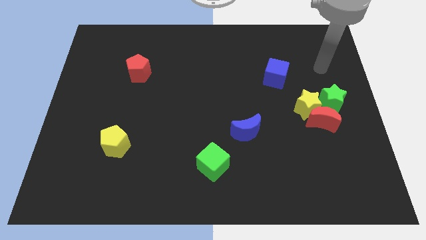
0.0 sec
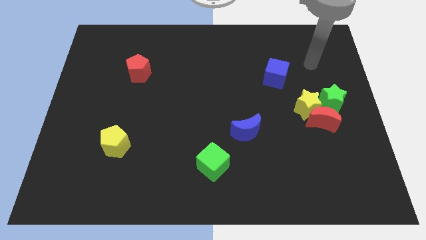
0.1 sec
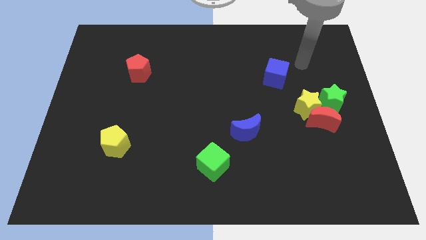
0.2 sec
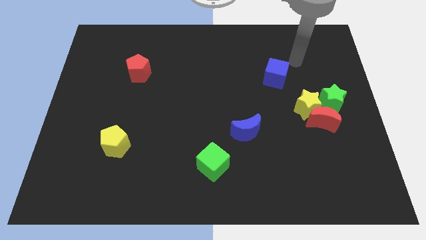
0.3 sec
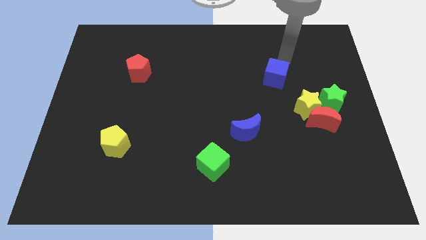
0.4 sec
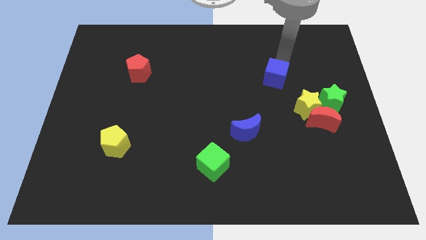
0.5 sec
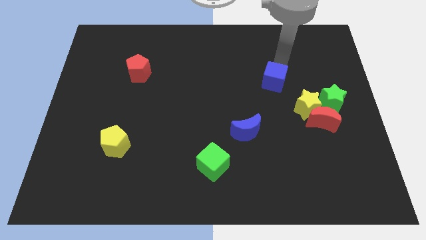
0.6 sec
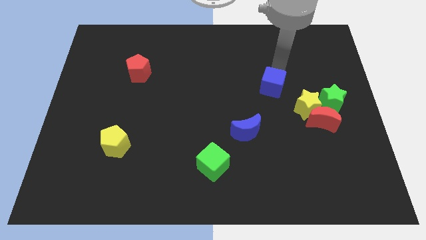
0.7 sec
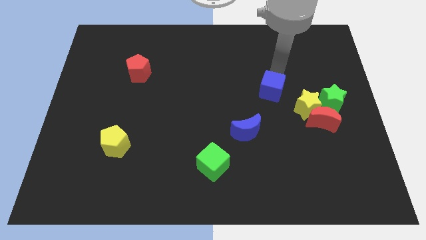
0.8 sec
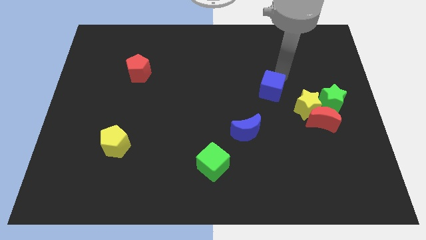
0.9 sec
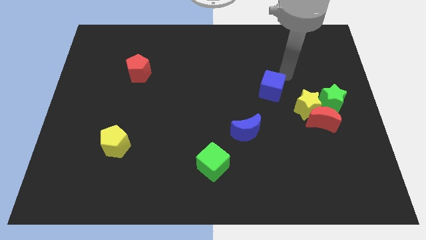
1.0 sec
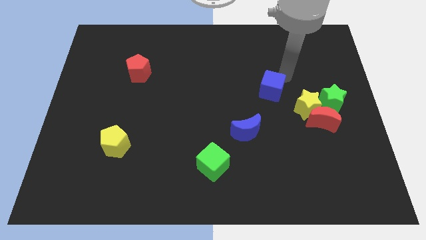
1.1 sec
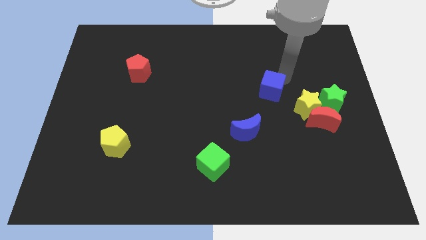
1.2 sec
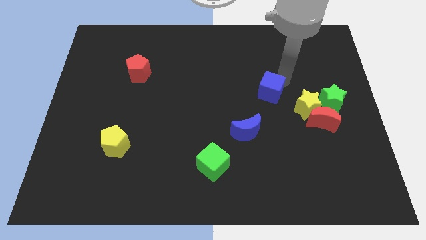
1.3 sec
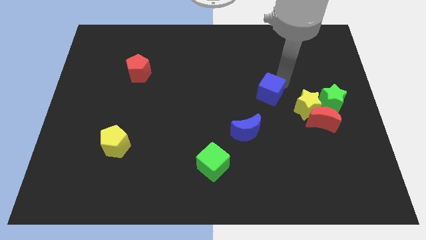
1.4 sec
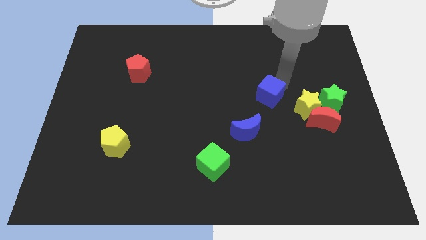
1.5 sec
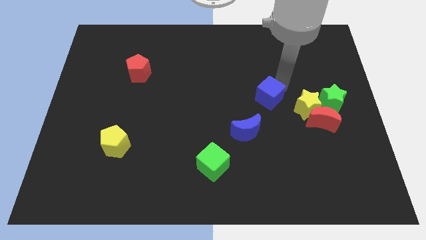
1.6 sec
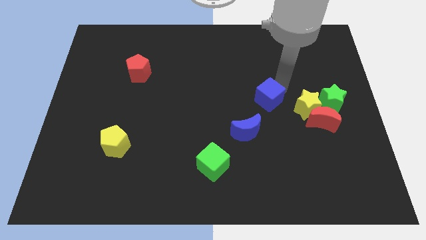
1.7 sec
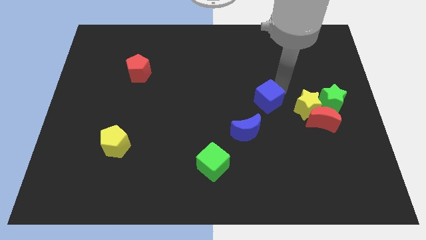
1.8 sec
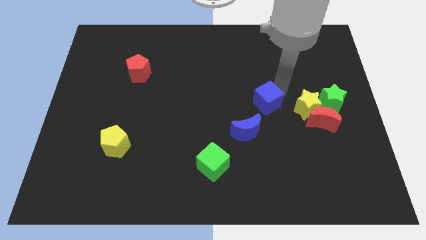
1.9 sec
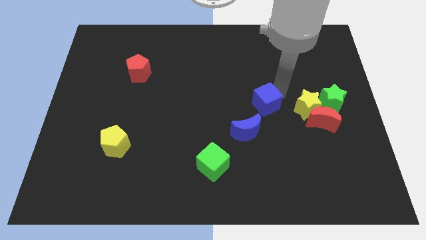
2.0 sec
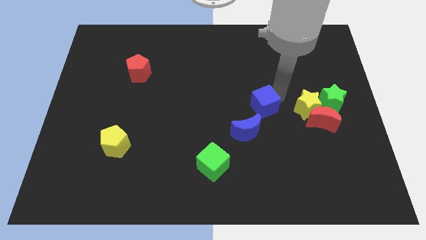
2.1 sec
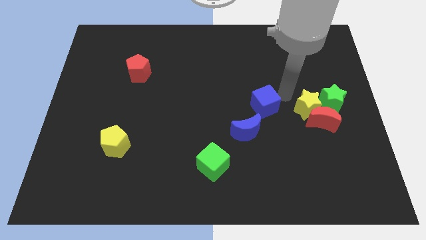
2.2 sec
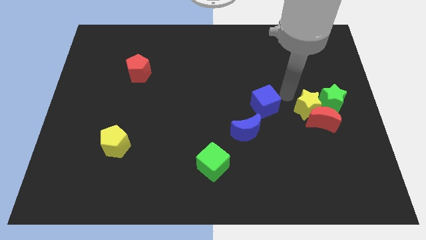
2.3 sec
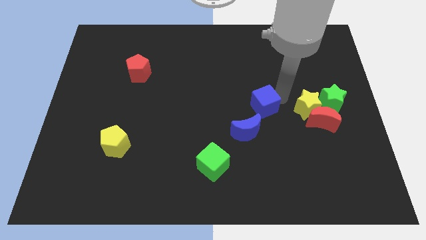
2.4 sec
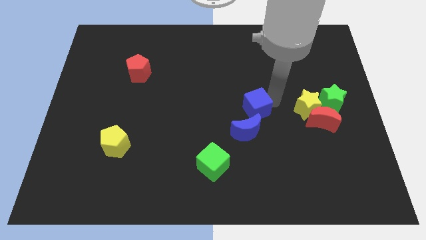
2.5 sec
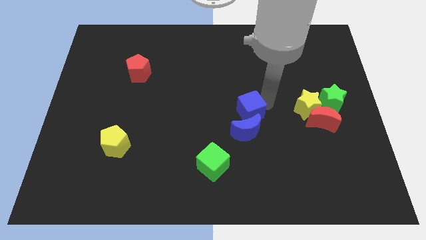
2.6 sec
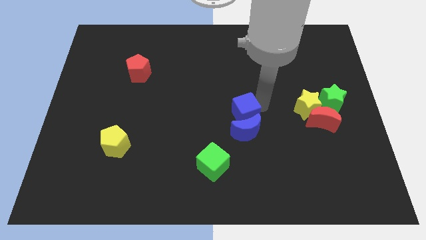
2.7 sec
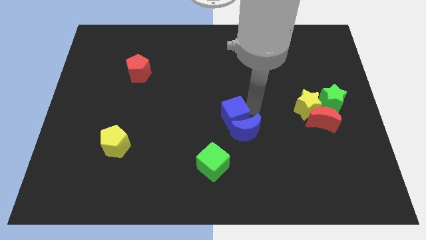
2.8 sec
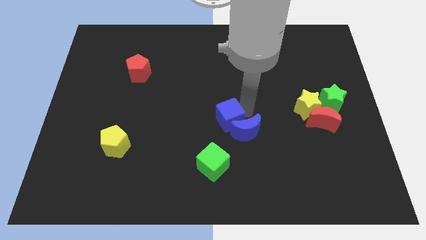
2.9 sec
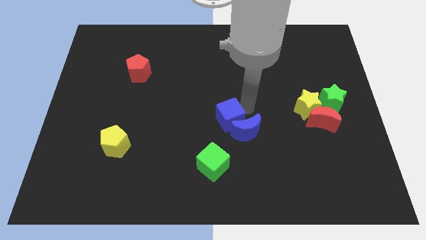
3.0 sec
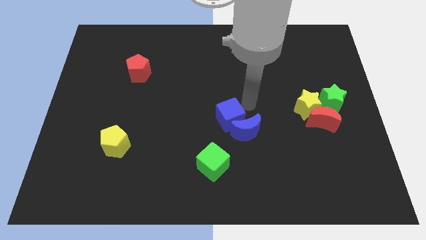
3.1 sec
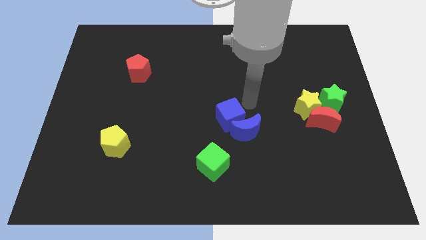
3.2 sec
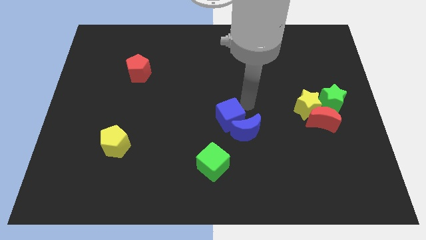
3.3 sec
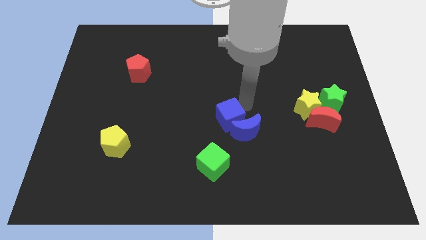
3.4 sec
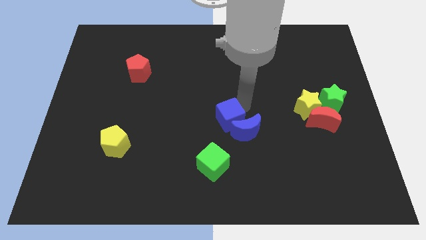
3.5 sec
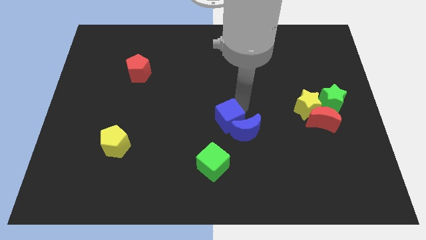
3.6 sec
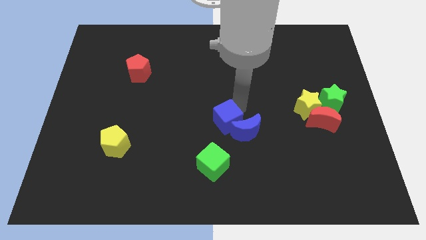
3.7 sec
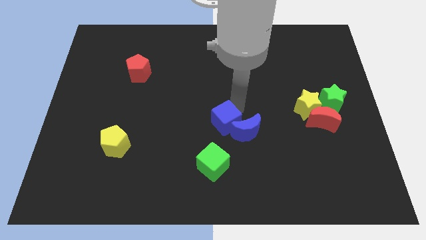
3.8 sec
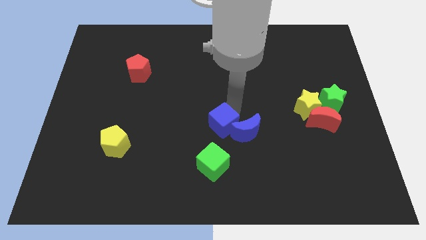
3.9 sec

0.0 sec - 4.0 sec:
push the blue cube downwards and left

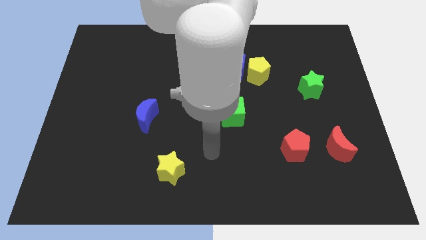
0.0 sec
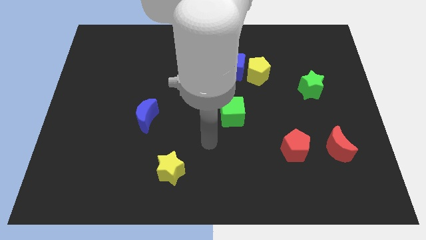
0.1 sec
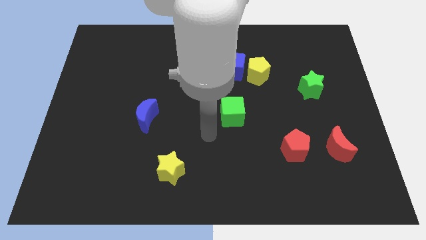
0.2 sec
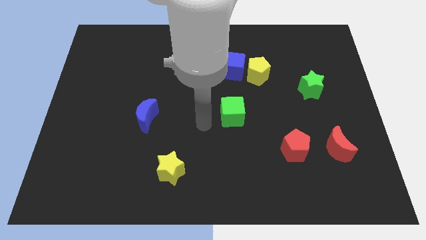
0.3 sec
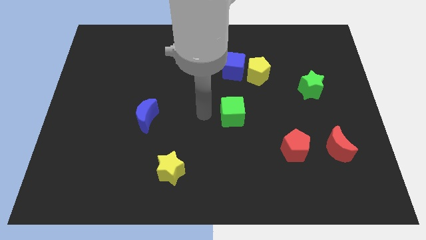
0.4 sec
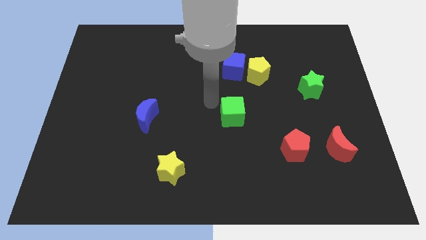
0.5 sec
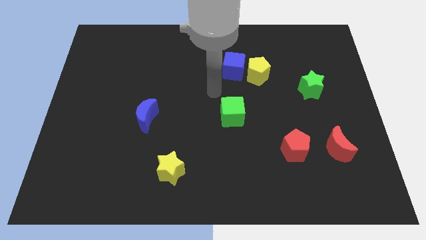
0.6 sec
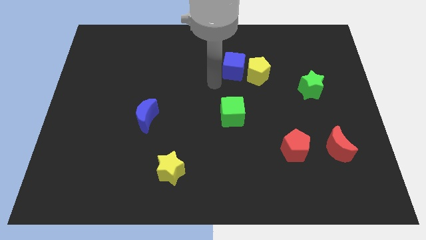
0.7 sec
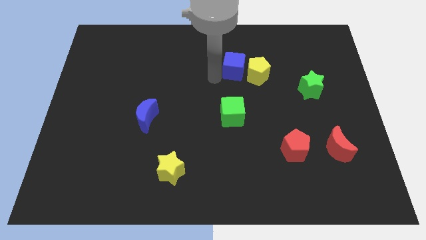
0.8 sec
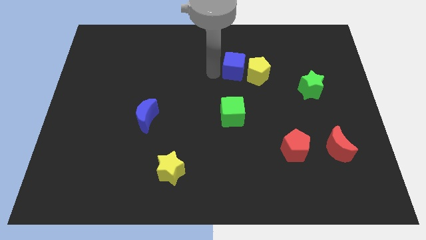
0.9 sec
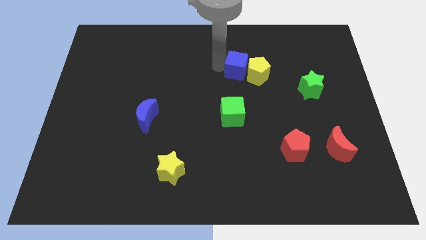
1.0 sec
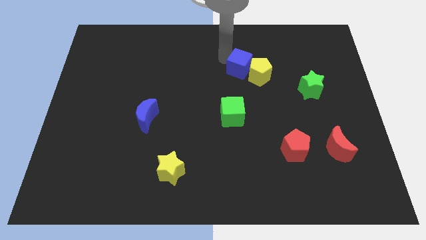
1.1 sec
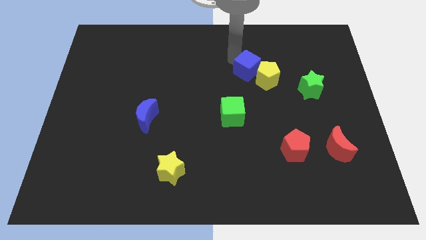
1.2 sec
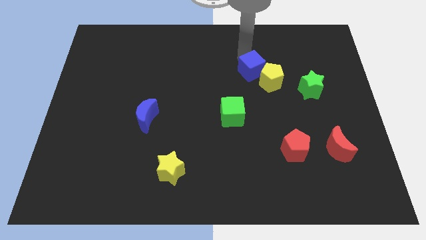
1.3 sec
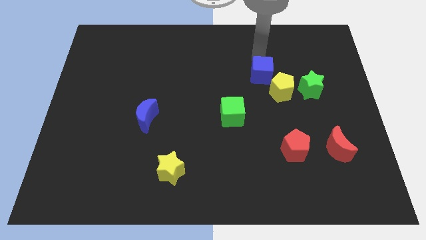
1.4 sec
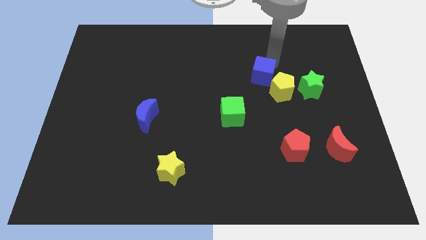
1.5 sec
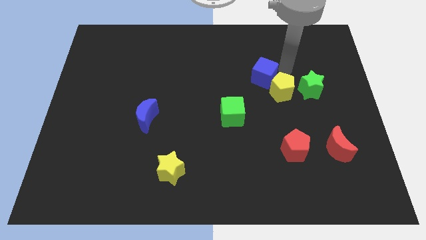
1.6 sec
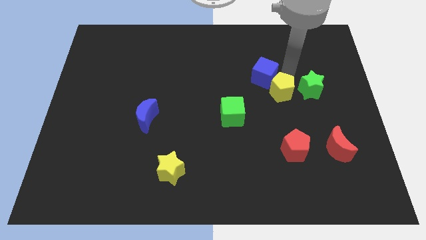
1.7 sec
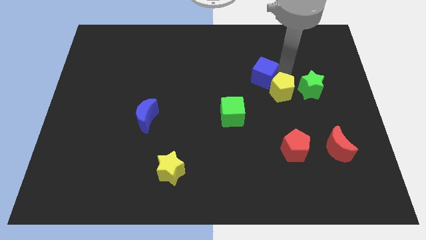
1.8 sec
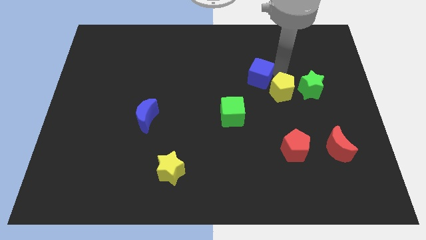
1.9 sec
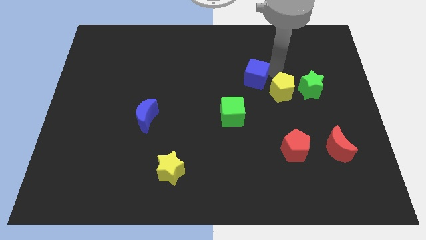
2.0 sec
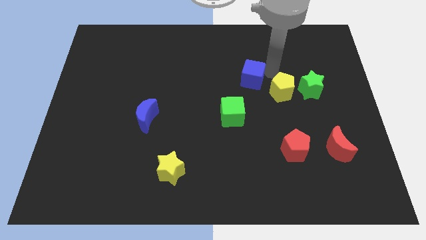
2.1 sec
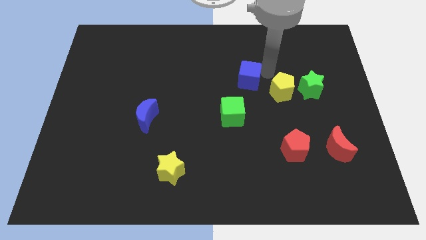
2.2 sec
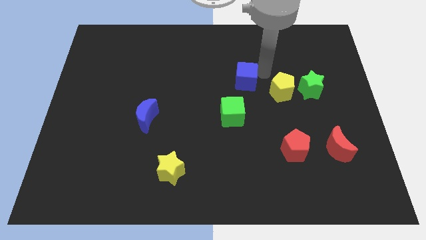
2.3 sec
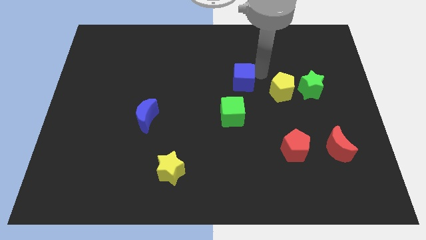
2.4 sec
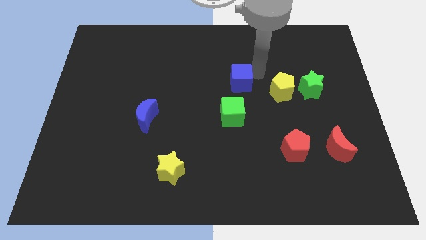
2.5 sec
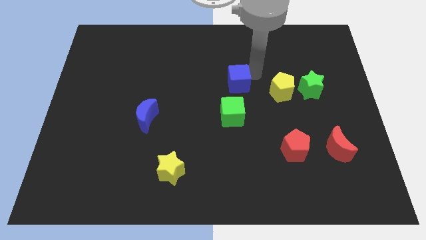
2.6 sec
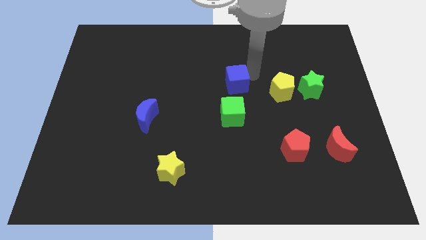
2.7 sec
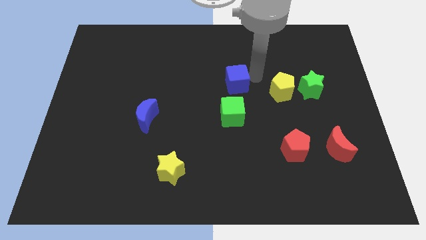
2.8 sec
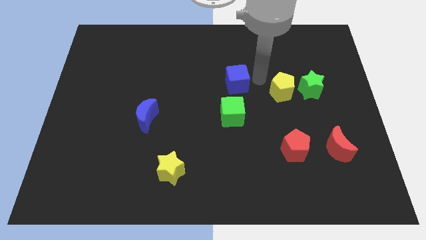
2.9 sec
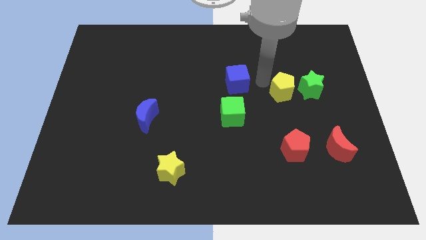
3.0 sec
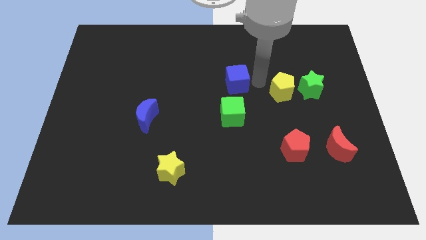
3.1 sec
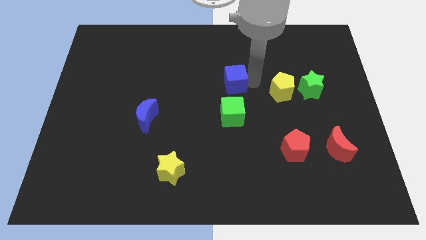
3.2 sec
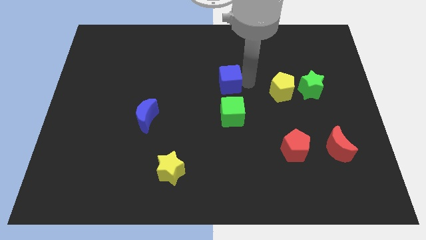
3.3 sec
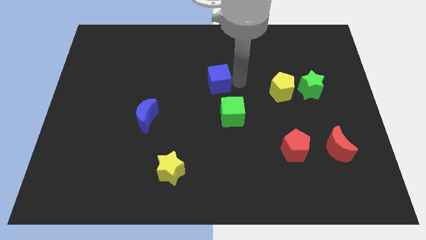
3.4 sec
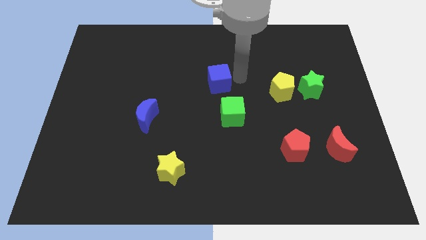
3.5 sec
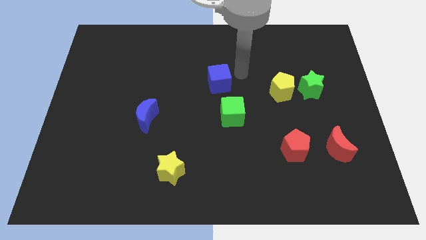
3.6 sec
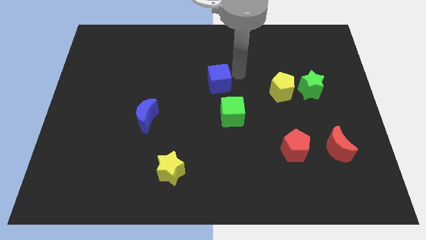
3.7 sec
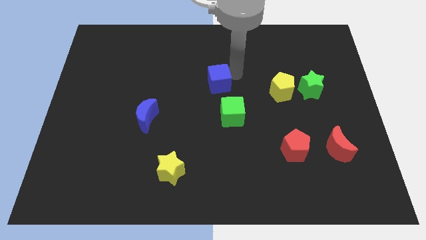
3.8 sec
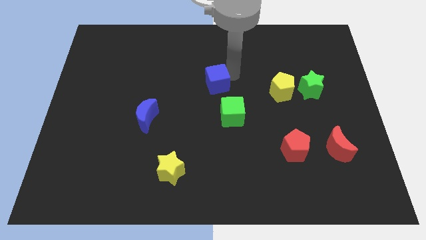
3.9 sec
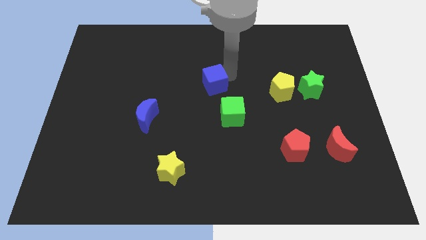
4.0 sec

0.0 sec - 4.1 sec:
slightly push the blue cube downwards and left diagonally

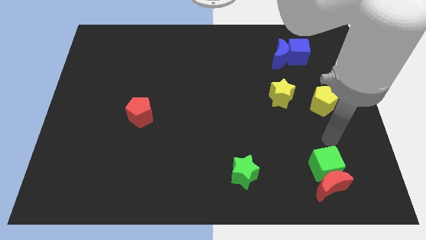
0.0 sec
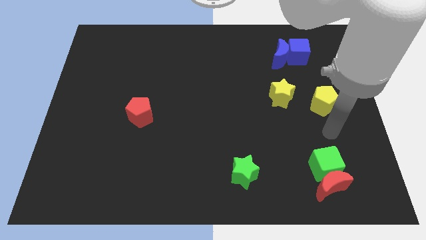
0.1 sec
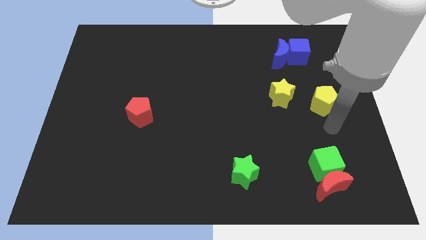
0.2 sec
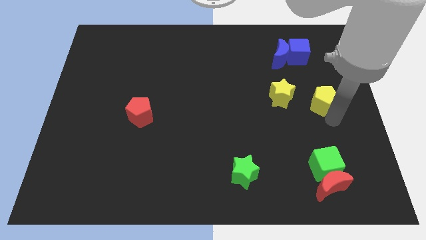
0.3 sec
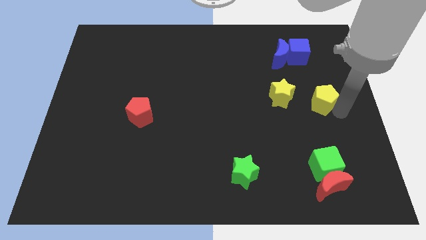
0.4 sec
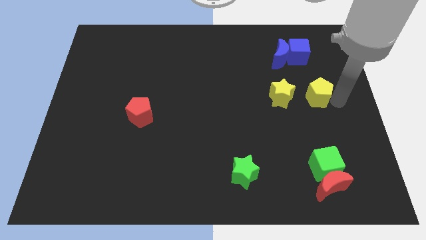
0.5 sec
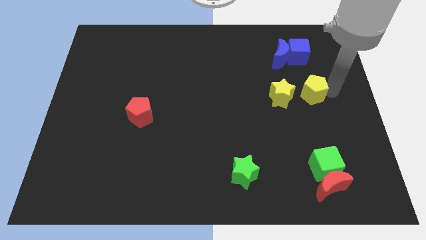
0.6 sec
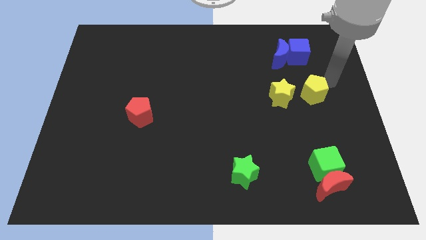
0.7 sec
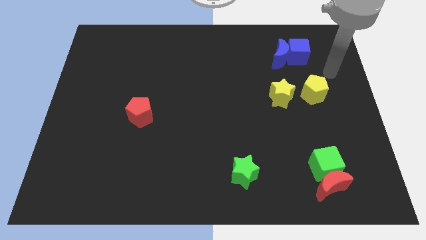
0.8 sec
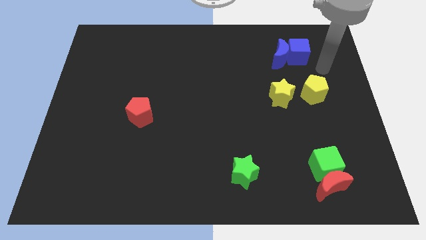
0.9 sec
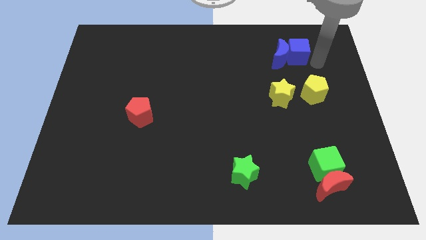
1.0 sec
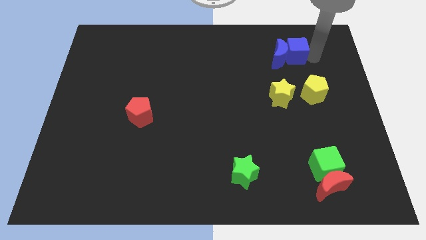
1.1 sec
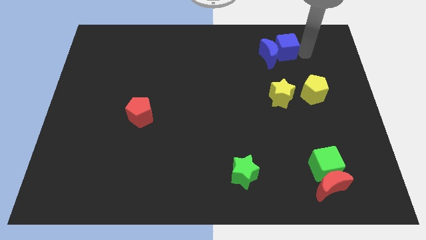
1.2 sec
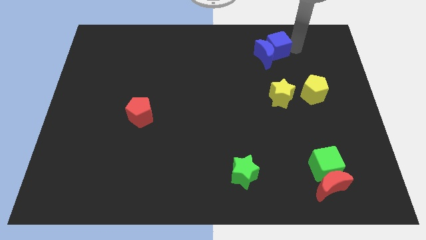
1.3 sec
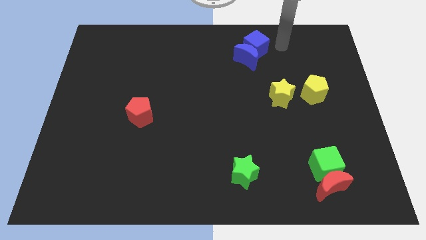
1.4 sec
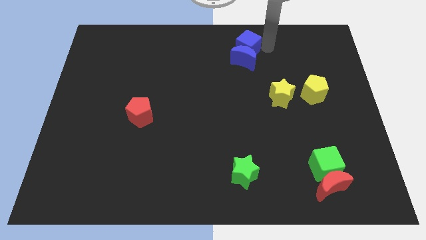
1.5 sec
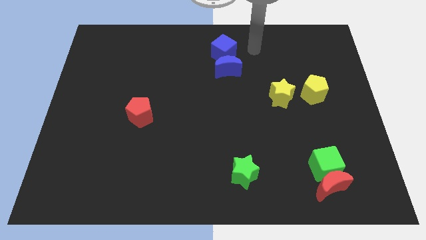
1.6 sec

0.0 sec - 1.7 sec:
move the blue moon a little down and left
